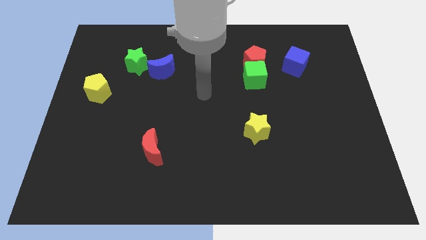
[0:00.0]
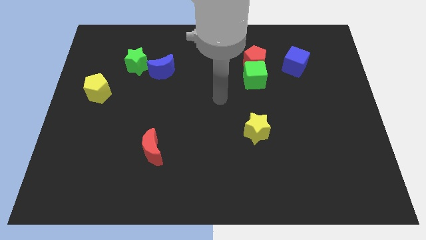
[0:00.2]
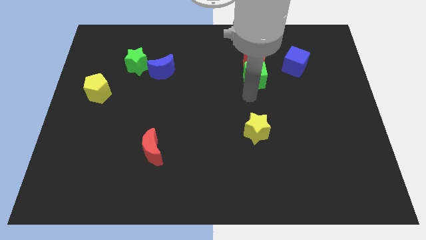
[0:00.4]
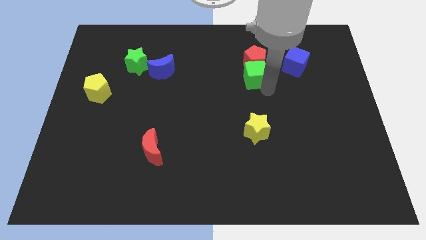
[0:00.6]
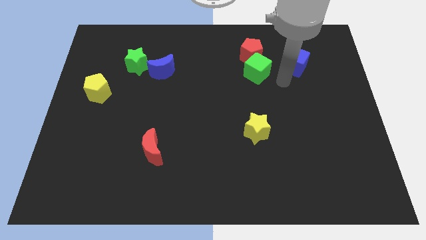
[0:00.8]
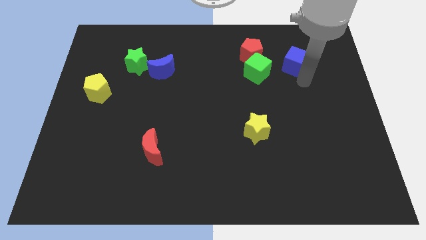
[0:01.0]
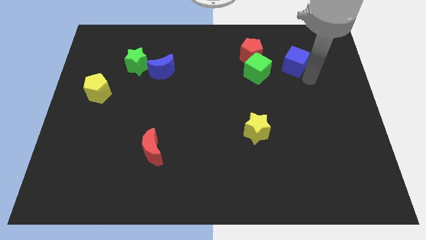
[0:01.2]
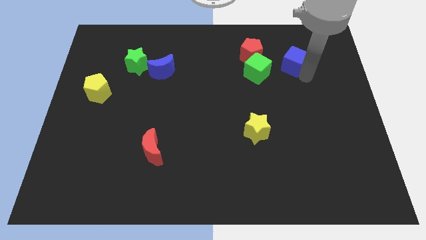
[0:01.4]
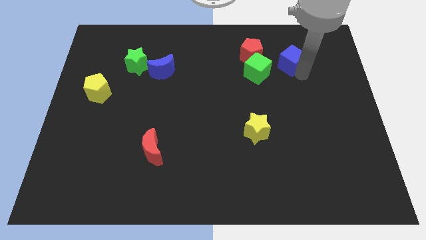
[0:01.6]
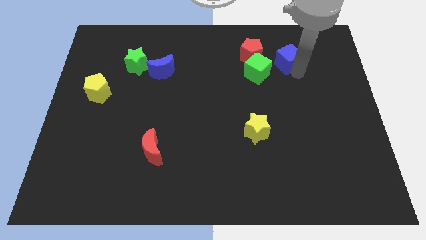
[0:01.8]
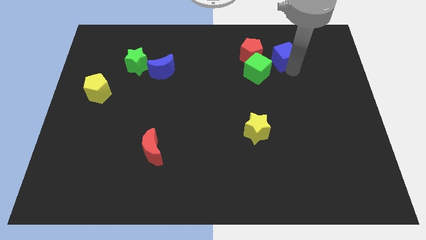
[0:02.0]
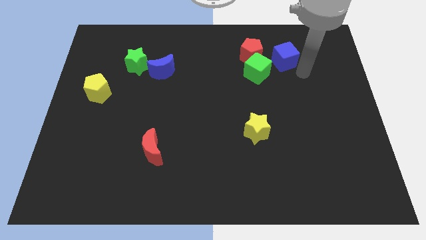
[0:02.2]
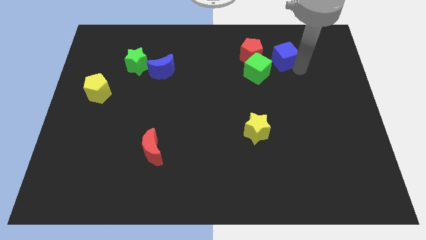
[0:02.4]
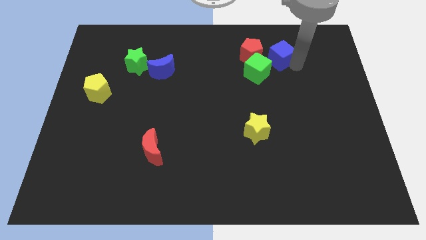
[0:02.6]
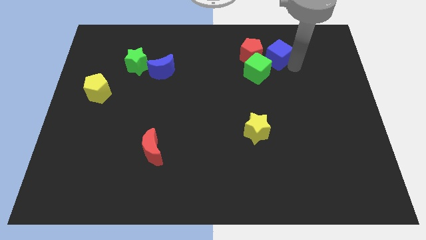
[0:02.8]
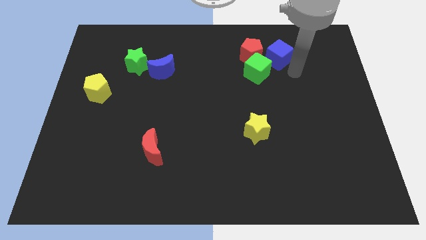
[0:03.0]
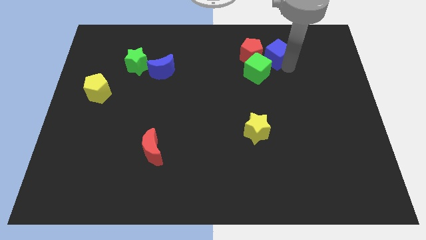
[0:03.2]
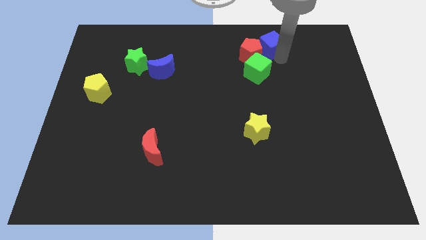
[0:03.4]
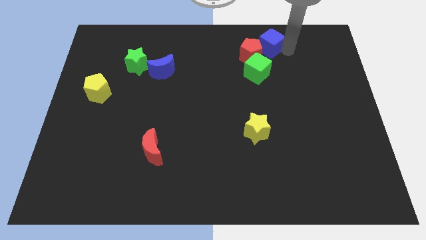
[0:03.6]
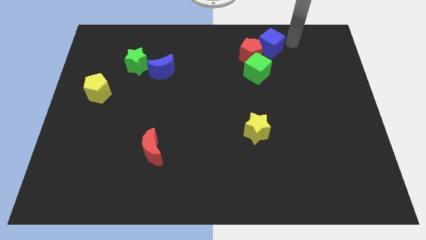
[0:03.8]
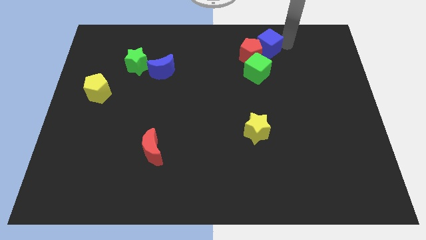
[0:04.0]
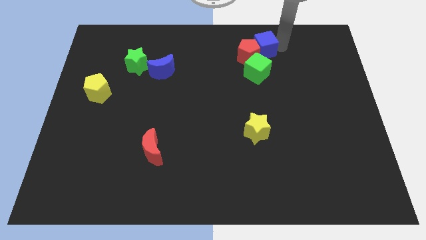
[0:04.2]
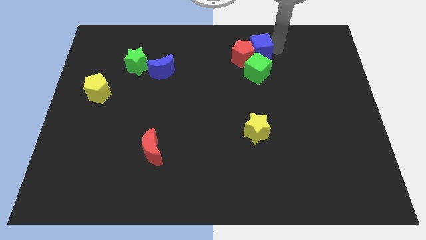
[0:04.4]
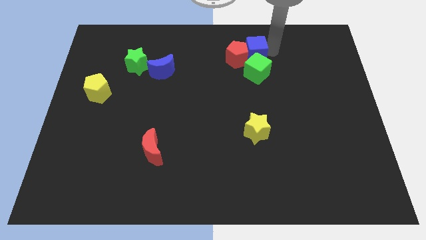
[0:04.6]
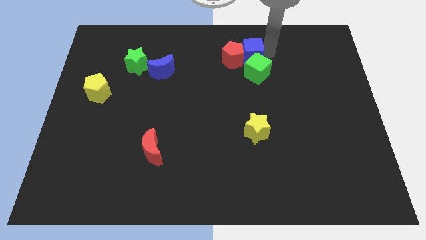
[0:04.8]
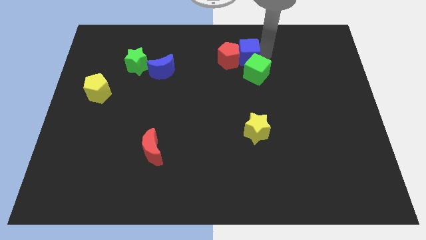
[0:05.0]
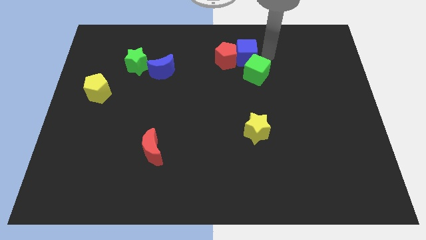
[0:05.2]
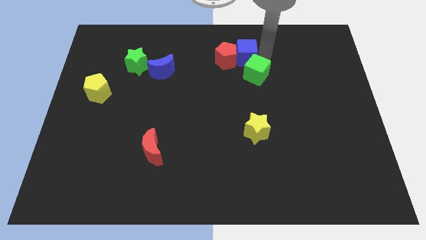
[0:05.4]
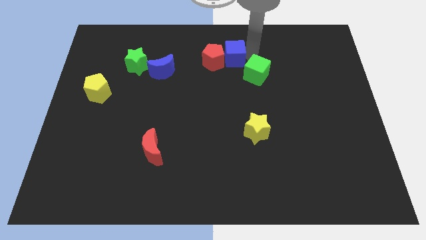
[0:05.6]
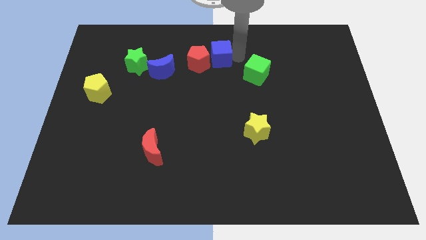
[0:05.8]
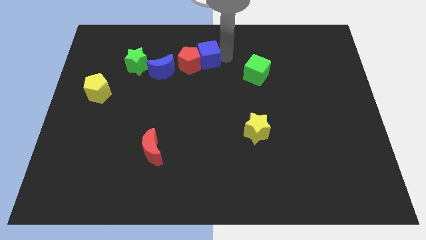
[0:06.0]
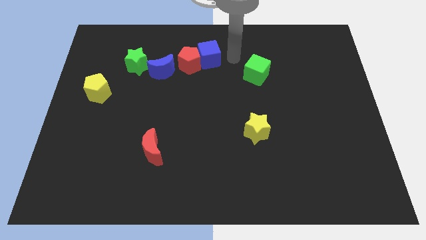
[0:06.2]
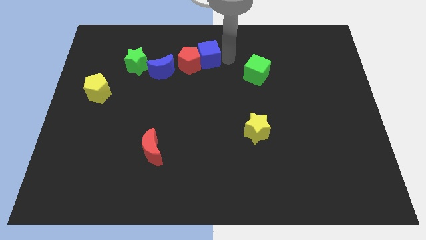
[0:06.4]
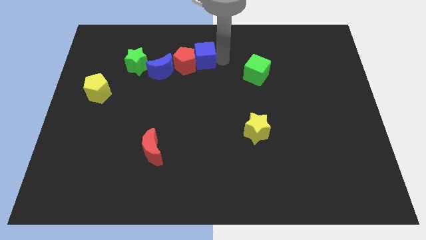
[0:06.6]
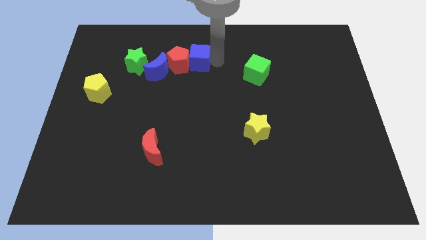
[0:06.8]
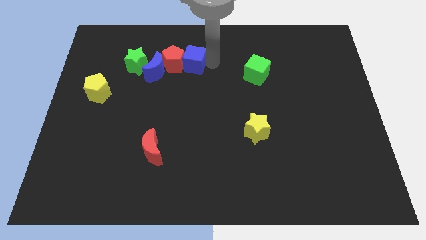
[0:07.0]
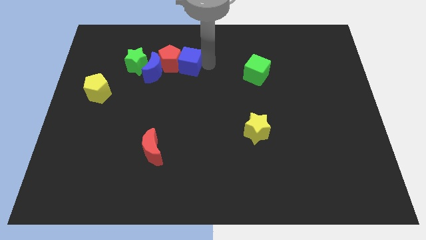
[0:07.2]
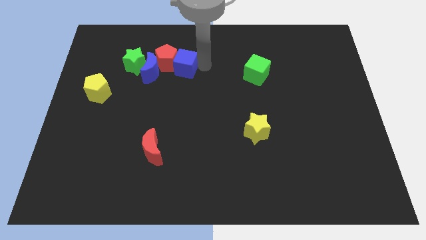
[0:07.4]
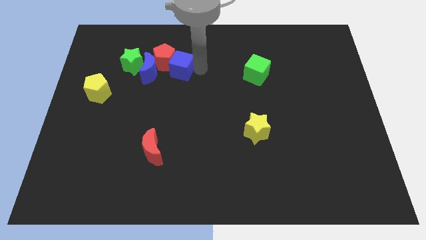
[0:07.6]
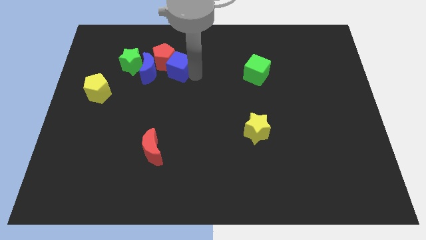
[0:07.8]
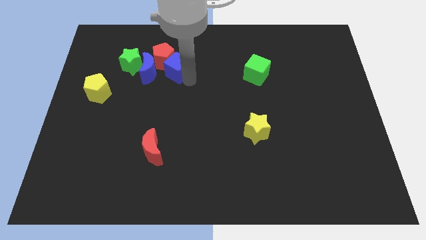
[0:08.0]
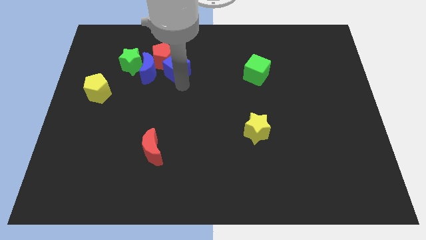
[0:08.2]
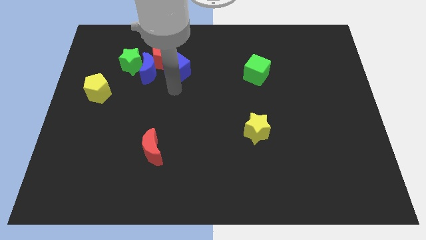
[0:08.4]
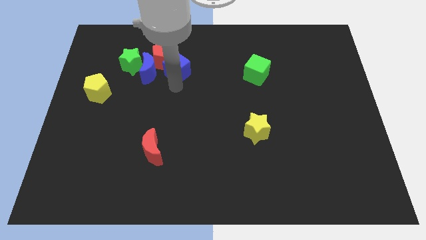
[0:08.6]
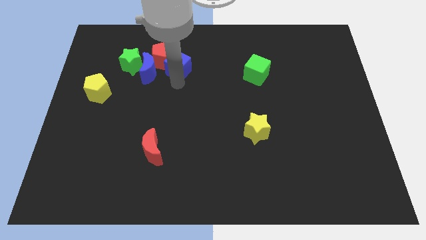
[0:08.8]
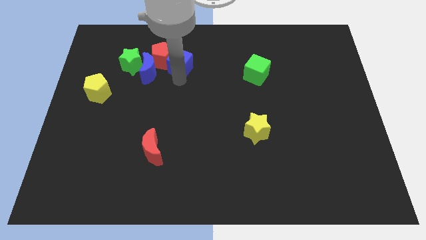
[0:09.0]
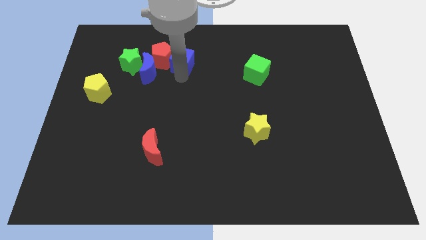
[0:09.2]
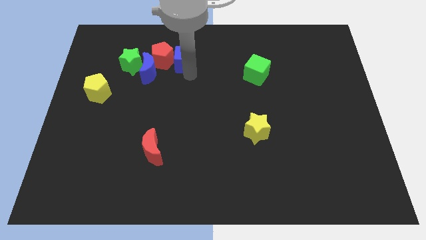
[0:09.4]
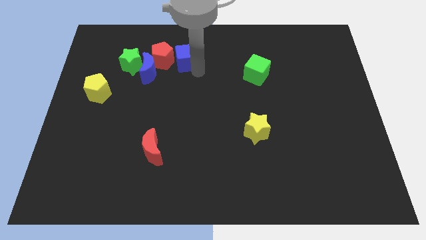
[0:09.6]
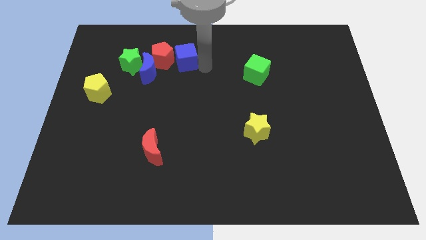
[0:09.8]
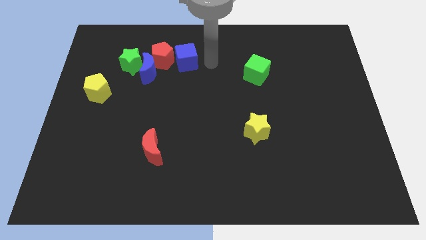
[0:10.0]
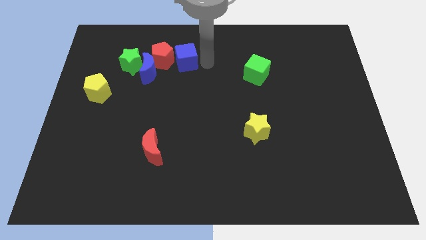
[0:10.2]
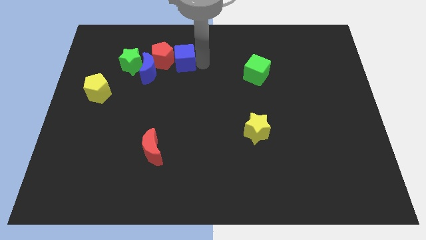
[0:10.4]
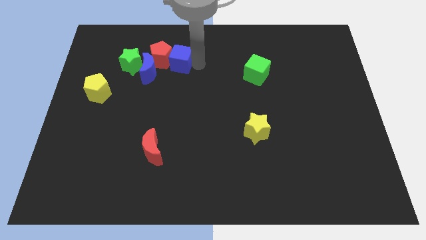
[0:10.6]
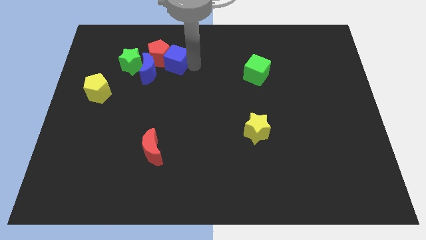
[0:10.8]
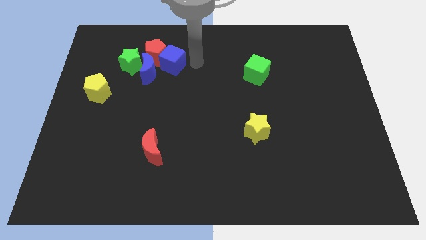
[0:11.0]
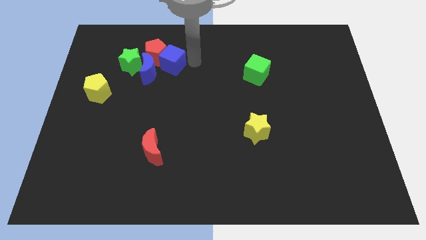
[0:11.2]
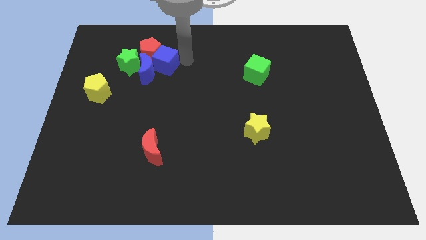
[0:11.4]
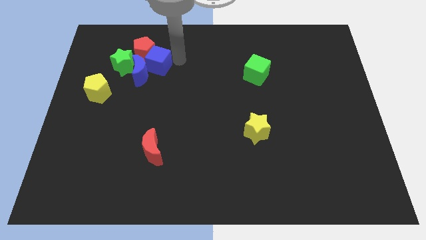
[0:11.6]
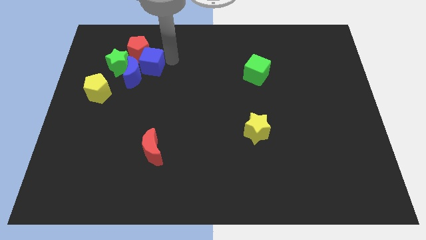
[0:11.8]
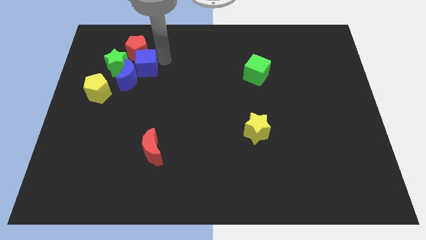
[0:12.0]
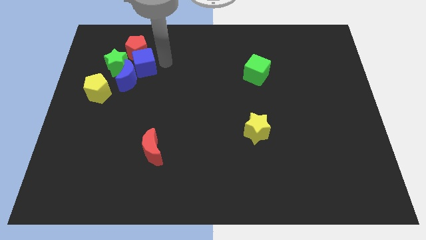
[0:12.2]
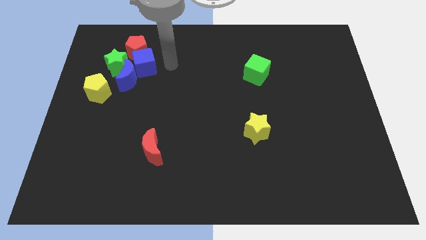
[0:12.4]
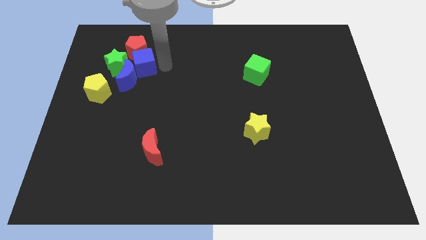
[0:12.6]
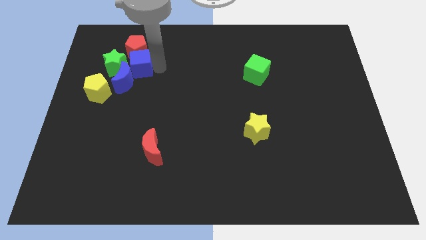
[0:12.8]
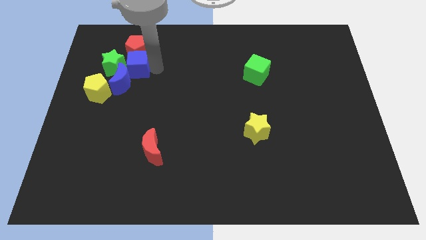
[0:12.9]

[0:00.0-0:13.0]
move the blue cube to the green star

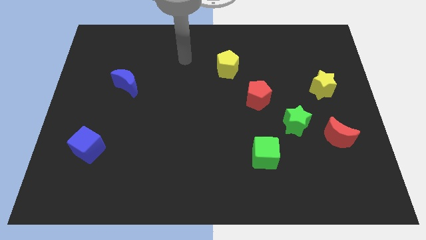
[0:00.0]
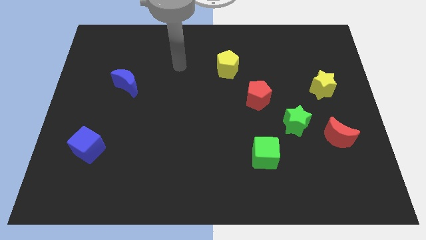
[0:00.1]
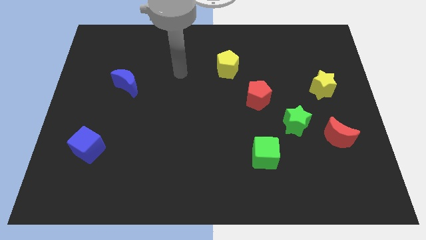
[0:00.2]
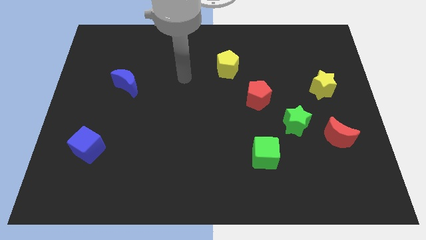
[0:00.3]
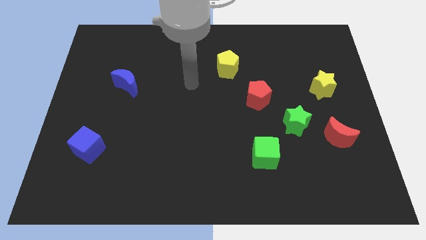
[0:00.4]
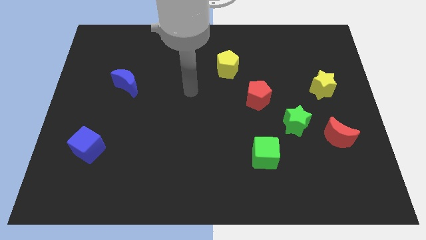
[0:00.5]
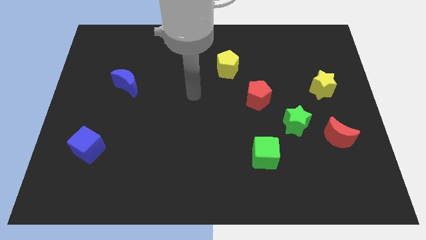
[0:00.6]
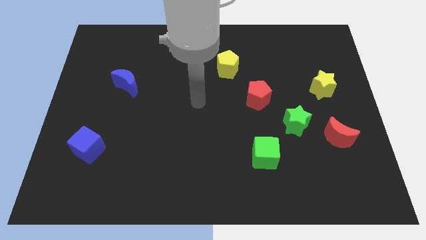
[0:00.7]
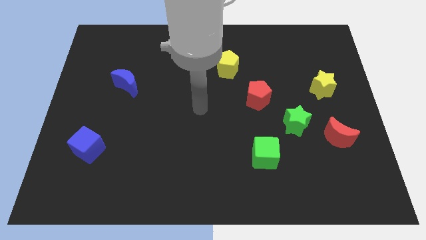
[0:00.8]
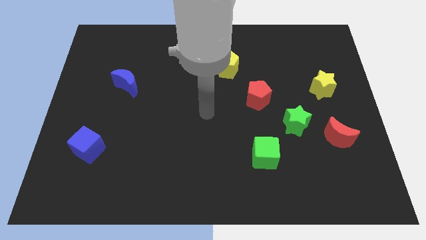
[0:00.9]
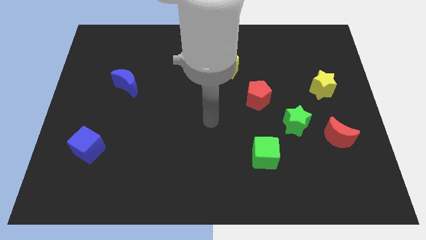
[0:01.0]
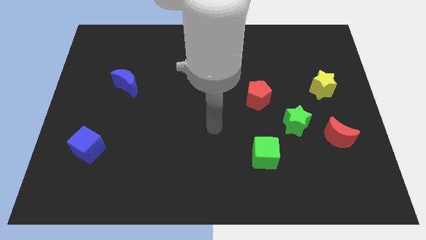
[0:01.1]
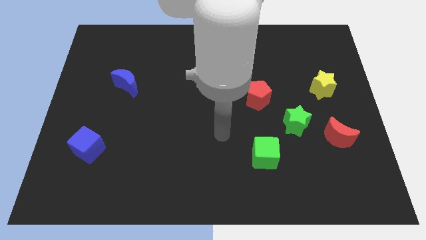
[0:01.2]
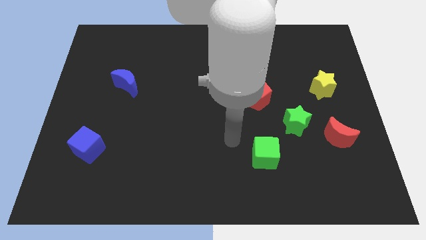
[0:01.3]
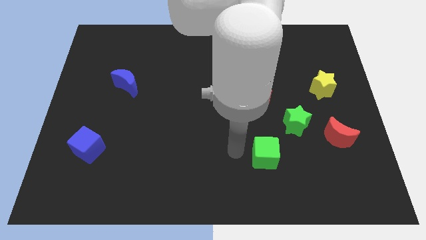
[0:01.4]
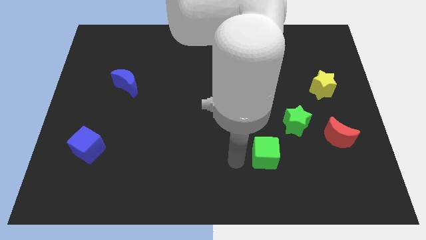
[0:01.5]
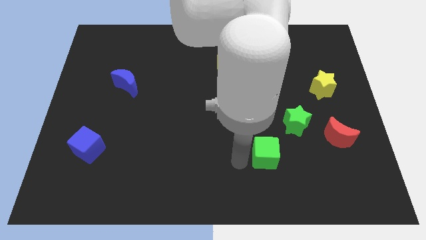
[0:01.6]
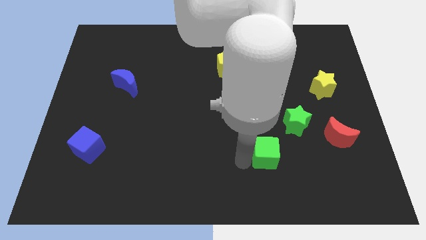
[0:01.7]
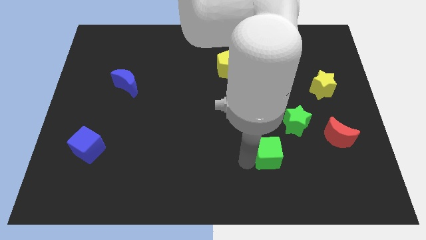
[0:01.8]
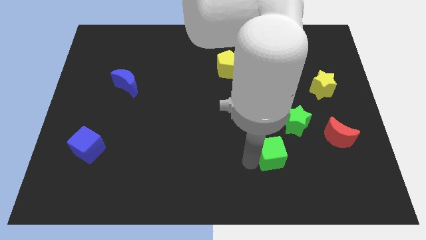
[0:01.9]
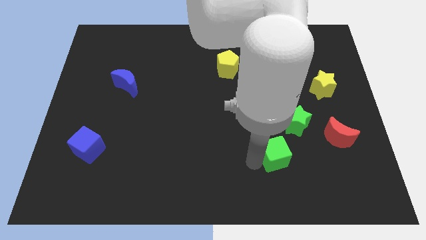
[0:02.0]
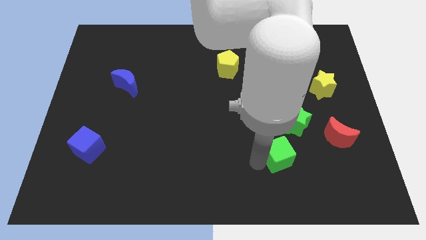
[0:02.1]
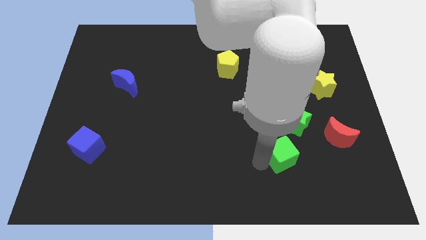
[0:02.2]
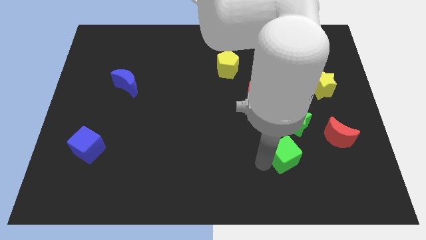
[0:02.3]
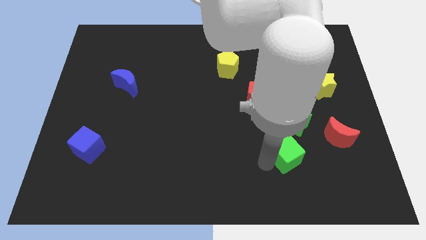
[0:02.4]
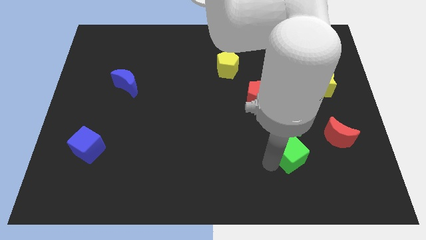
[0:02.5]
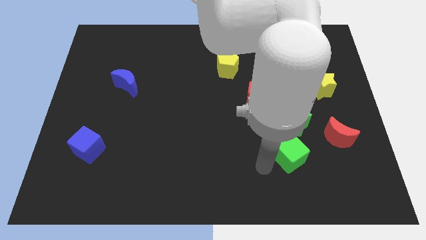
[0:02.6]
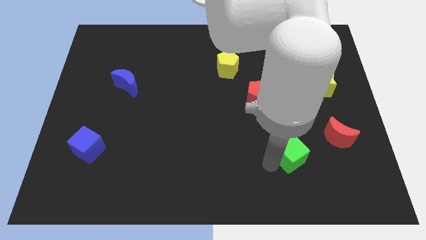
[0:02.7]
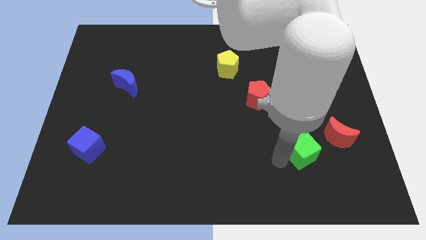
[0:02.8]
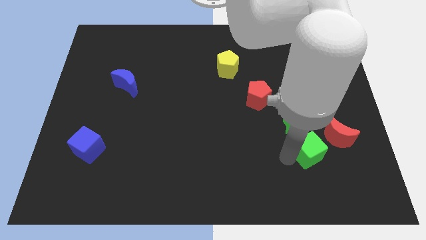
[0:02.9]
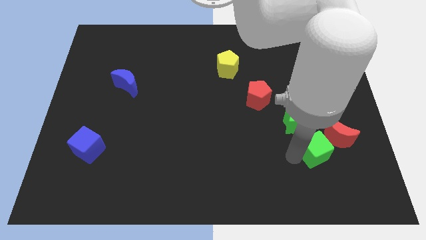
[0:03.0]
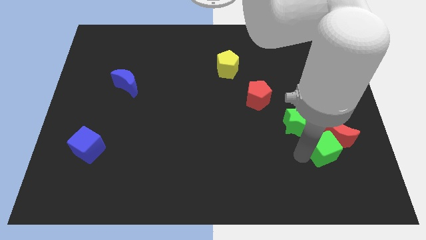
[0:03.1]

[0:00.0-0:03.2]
slide the green cube to the red moon
